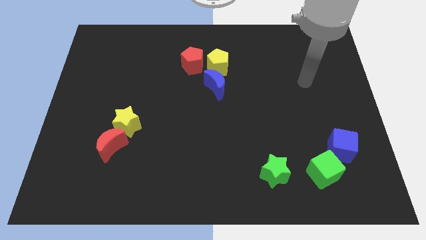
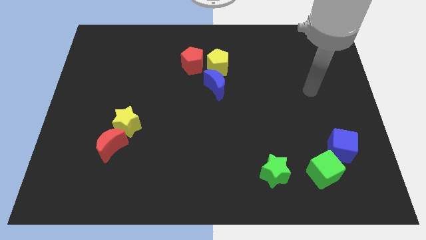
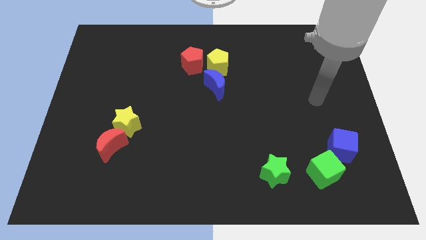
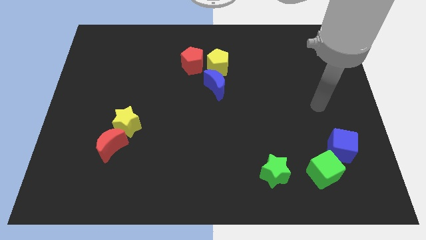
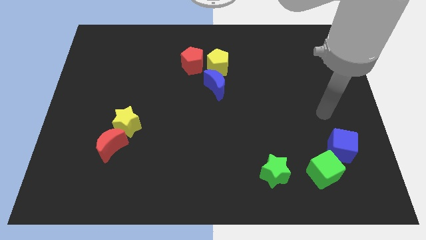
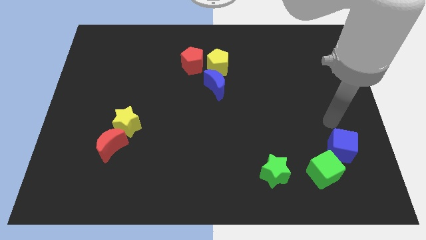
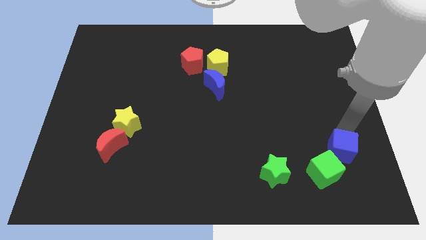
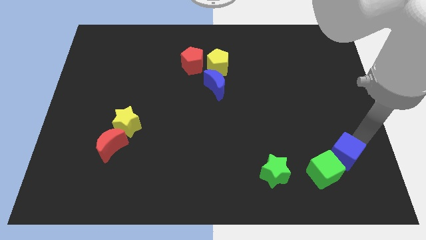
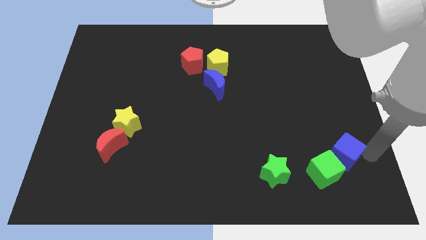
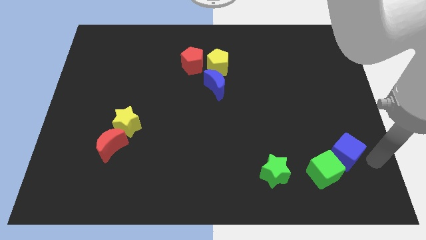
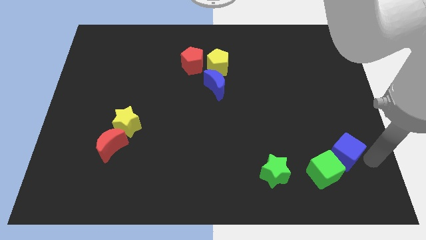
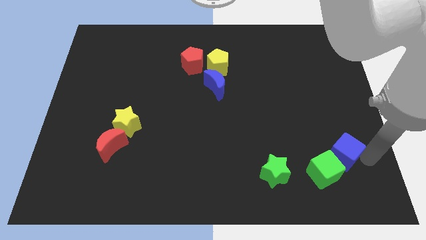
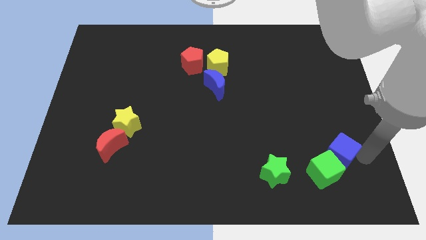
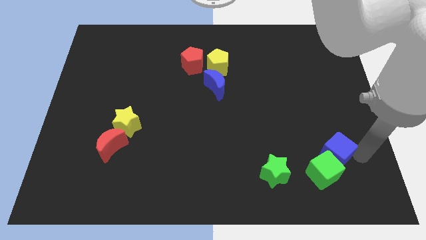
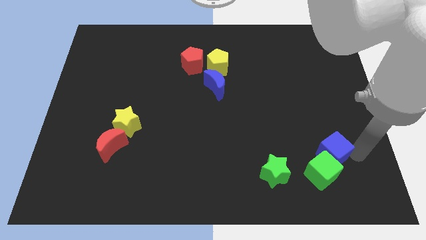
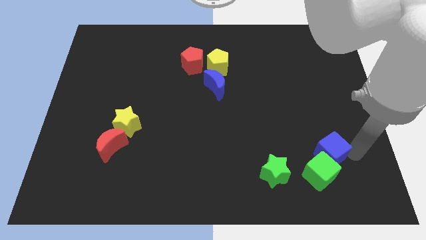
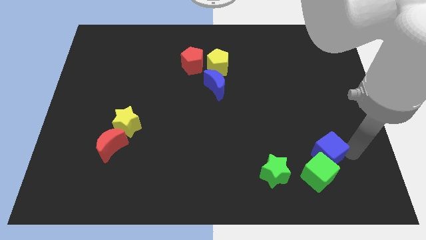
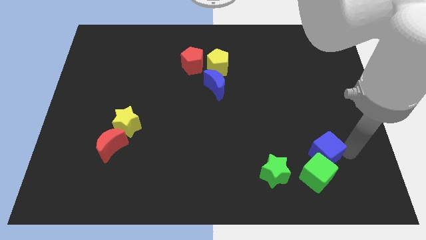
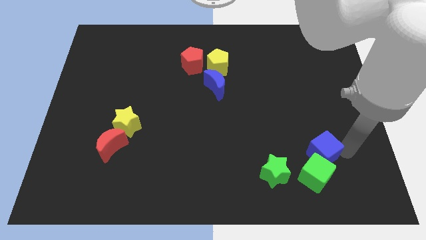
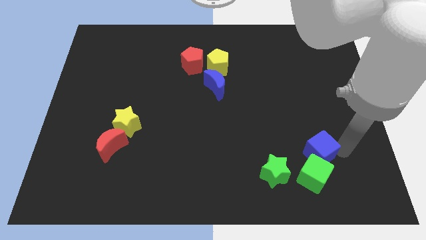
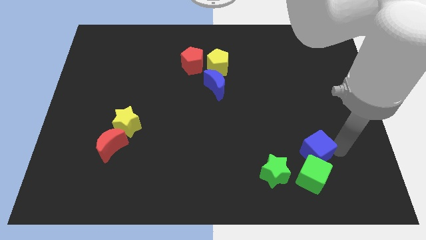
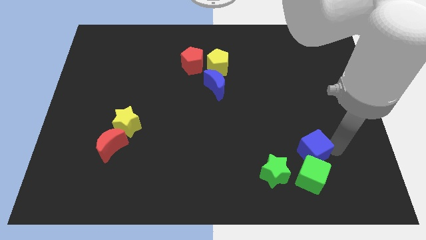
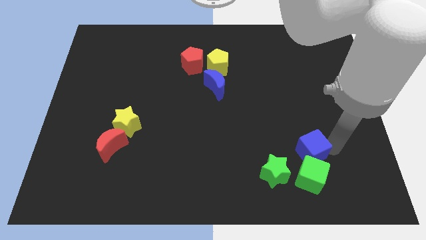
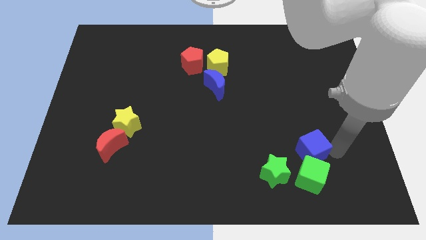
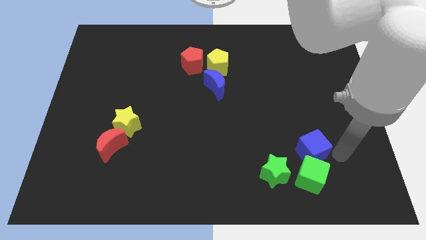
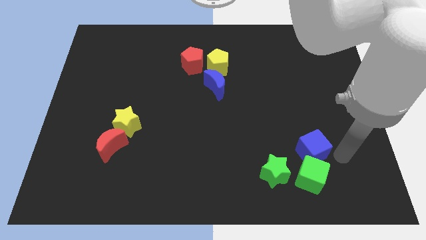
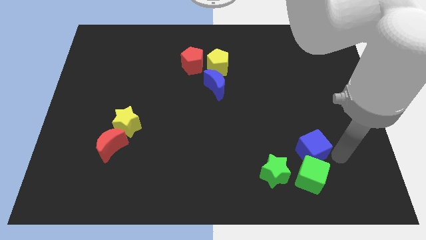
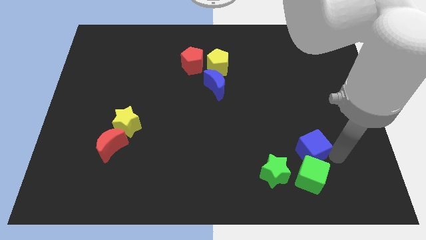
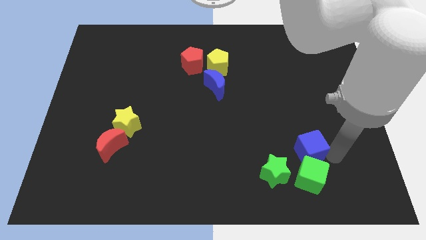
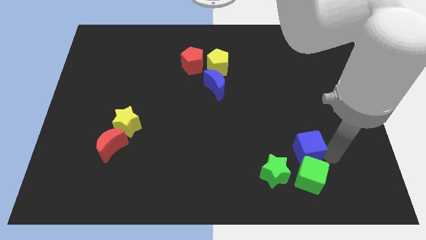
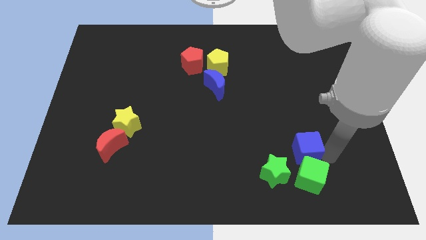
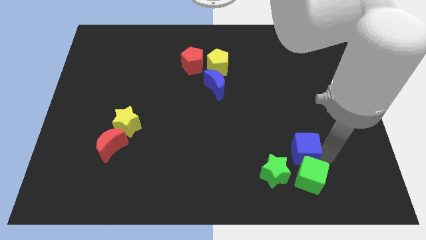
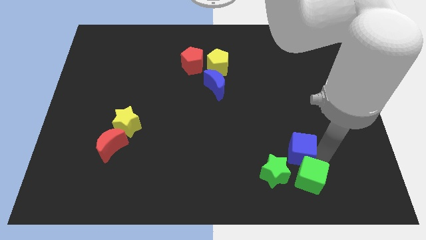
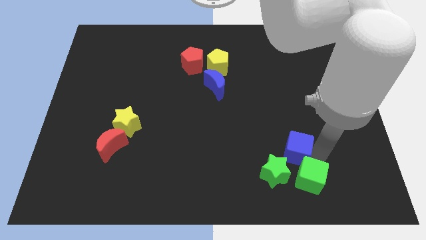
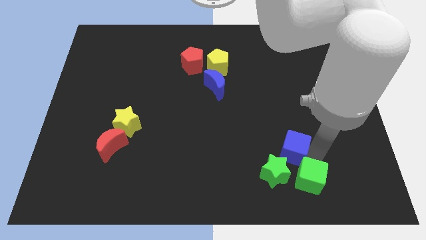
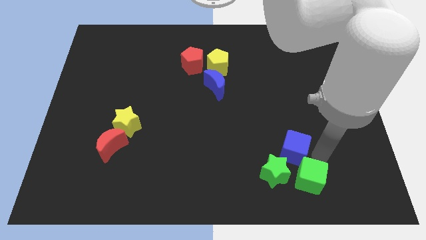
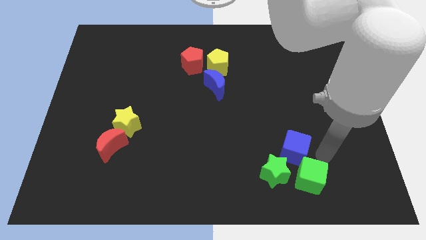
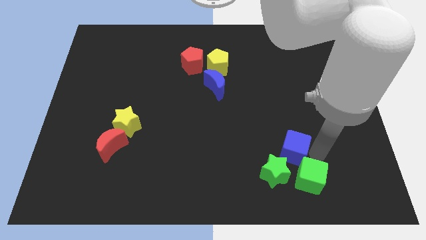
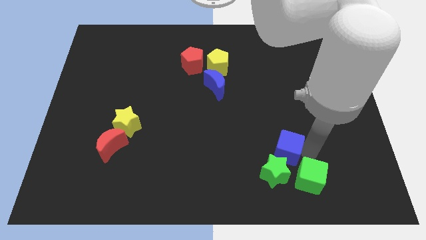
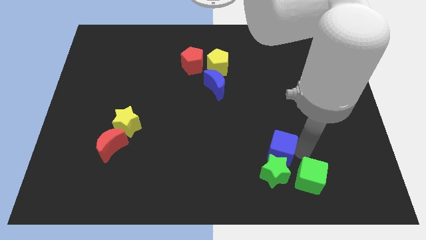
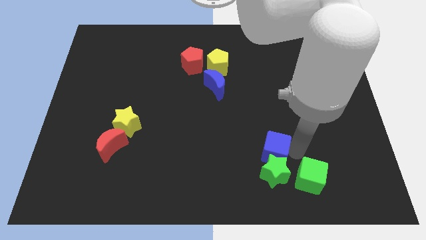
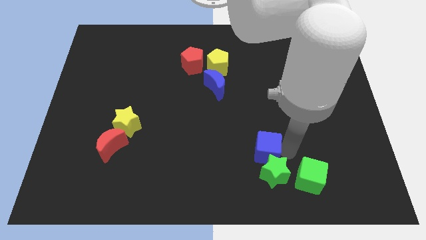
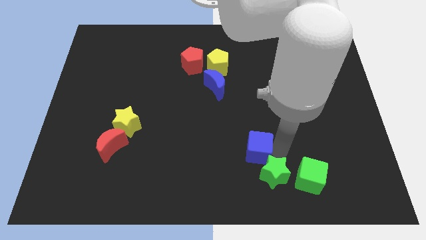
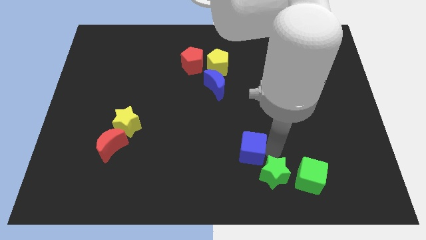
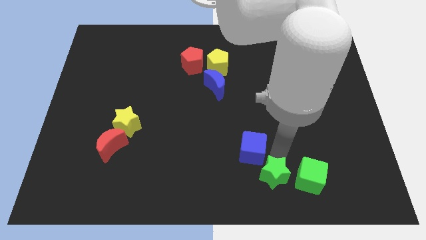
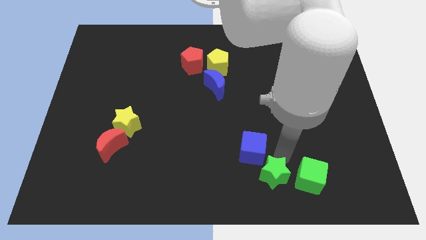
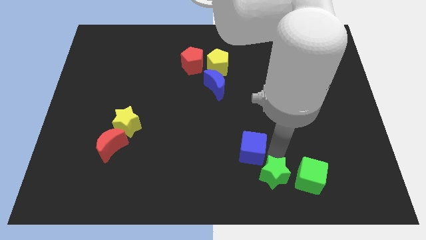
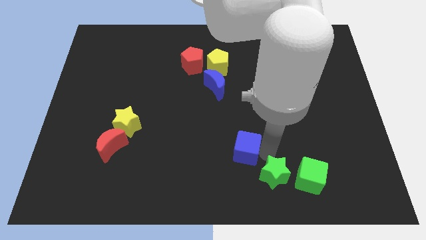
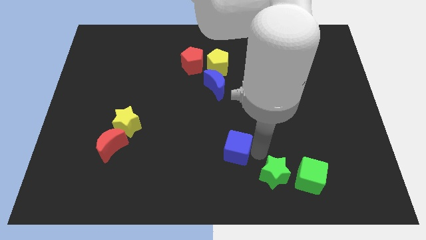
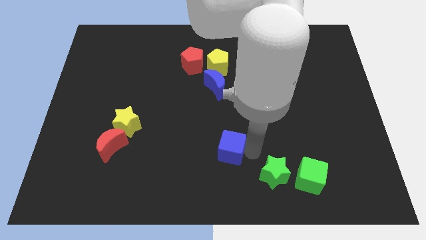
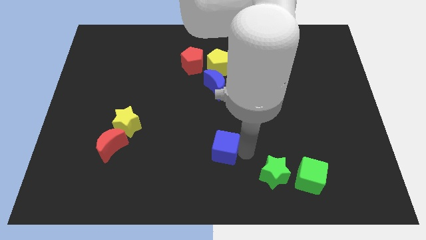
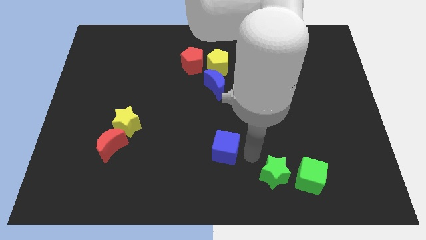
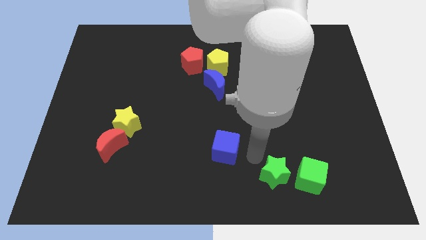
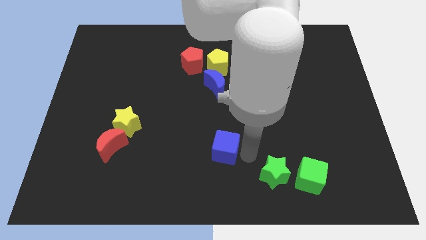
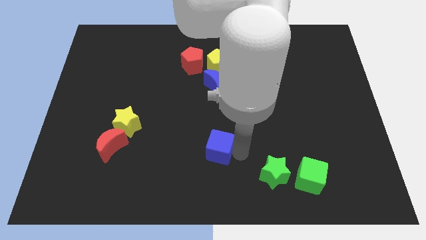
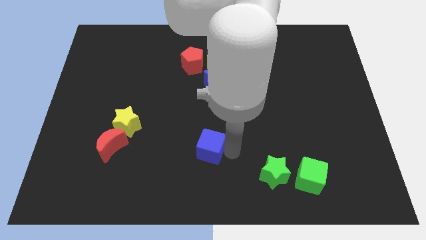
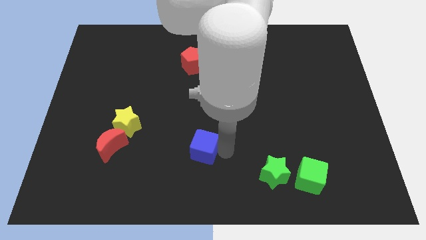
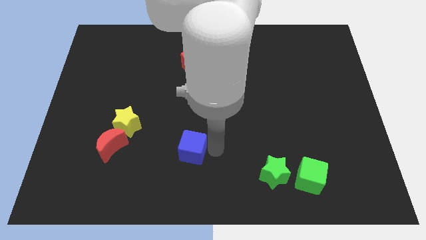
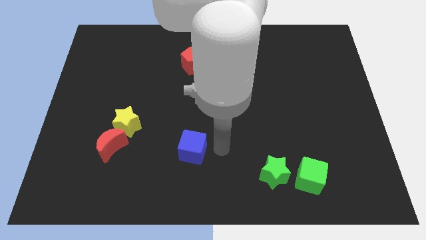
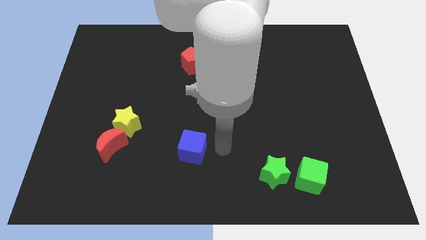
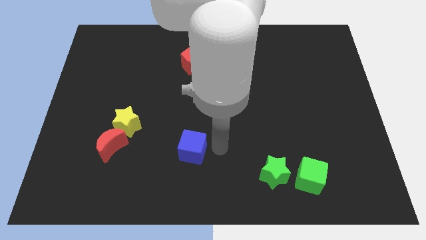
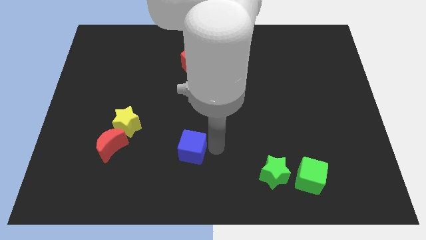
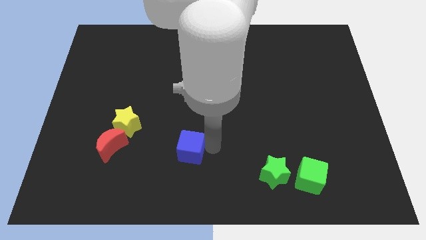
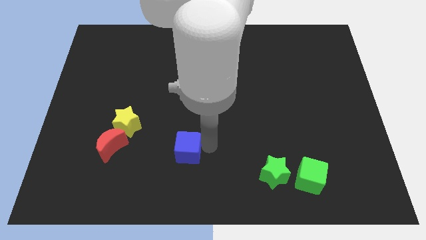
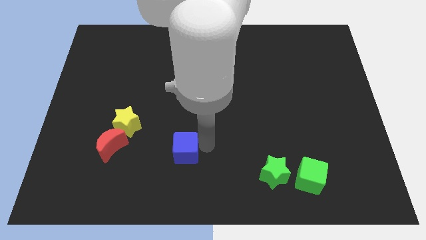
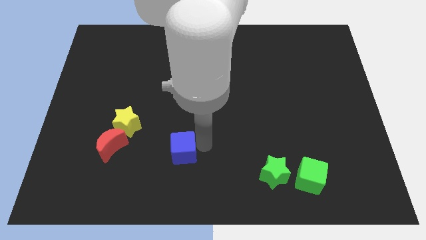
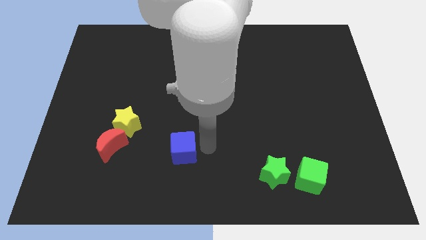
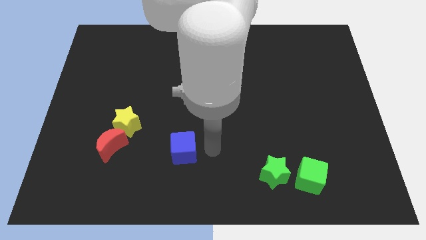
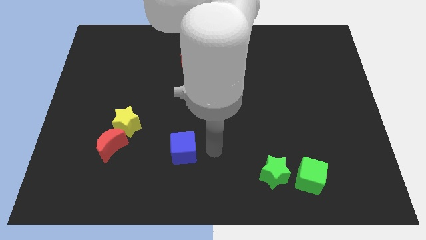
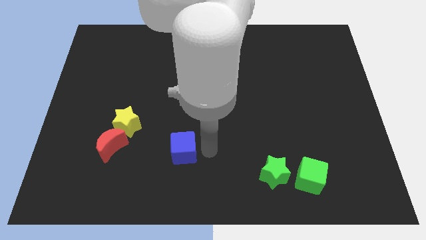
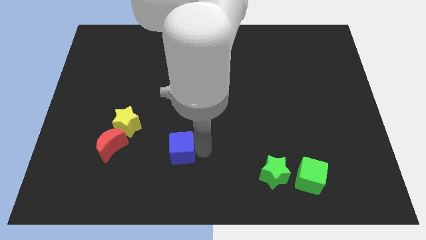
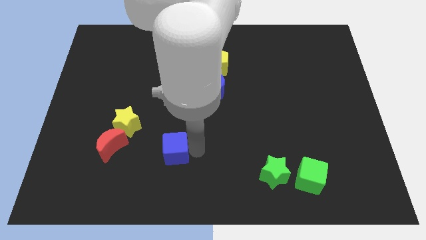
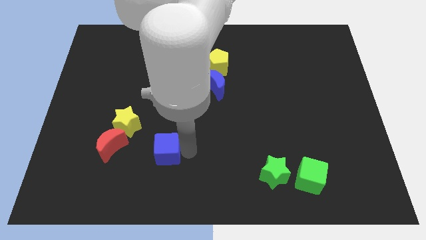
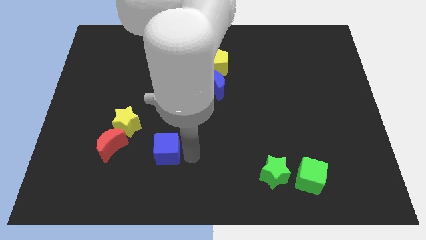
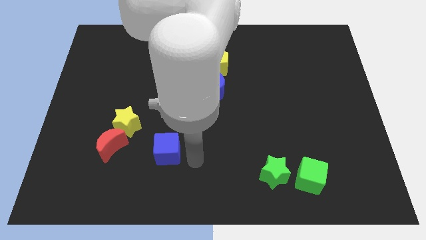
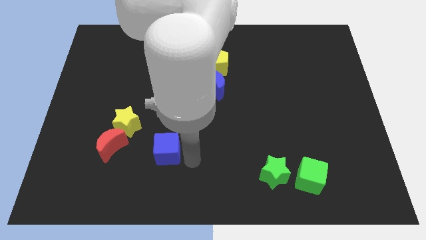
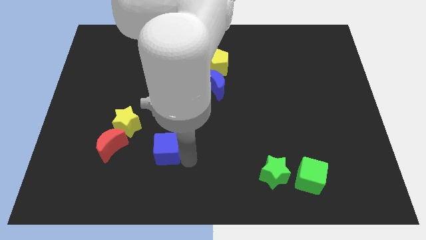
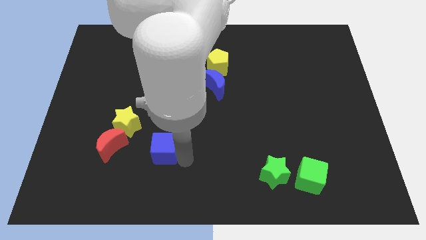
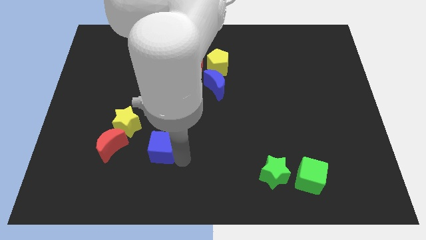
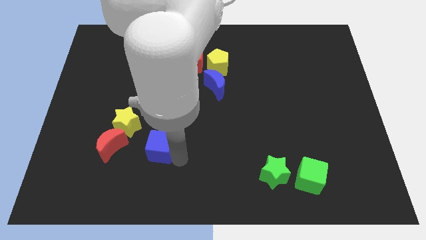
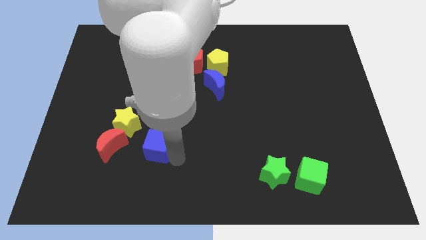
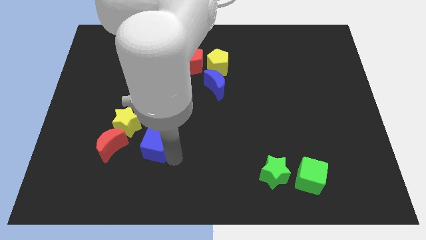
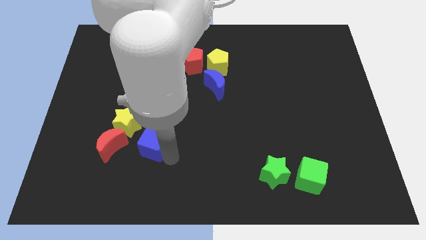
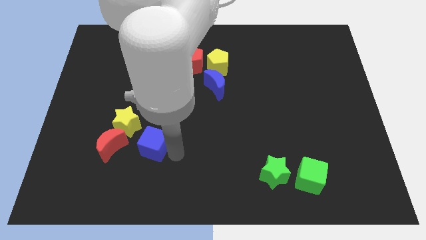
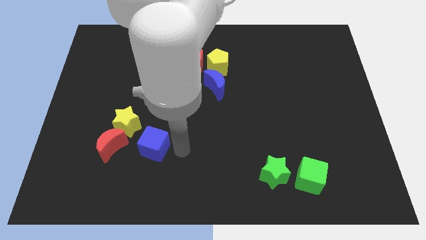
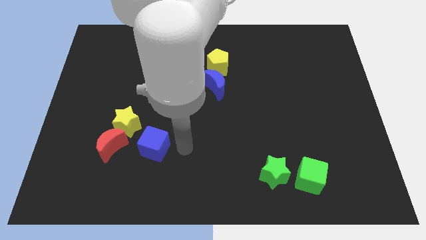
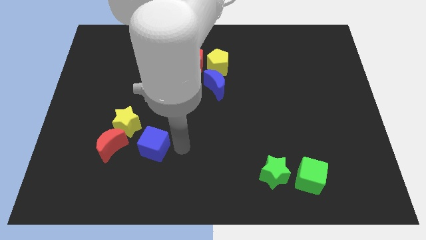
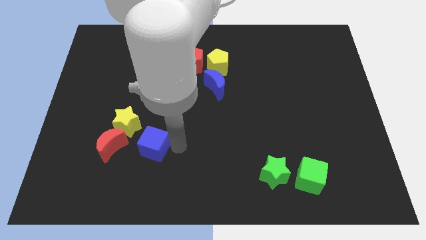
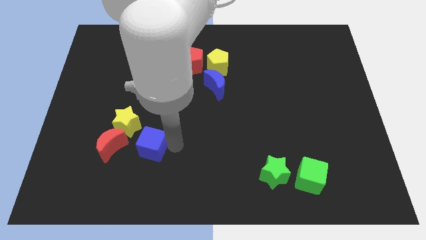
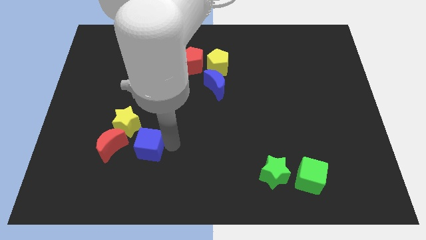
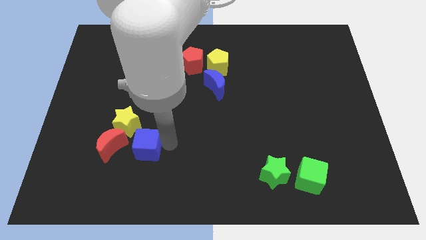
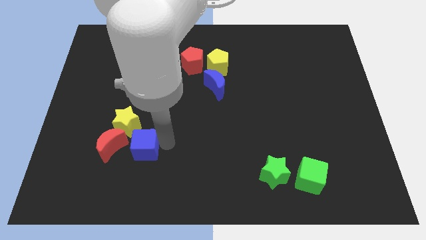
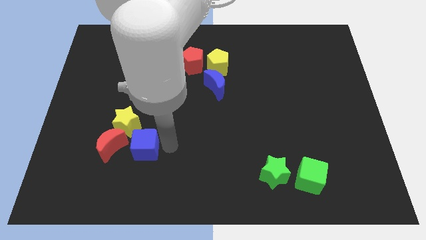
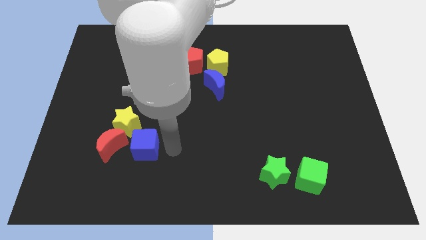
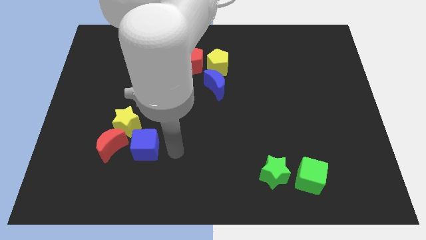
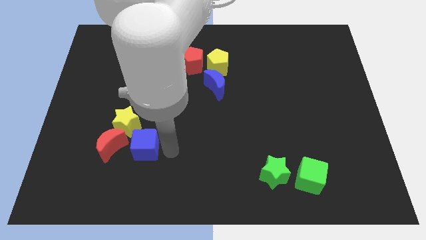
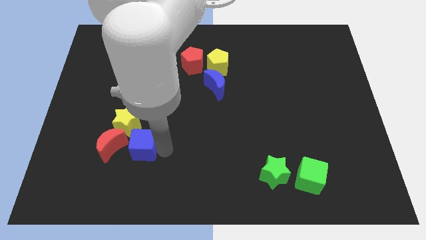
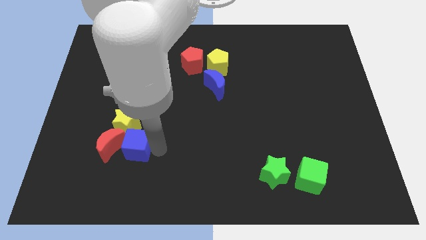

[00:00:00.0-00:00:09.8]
slide the blue cube close to the red moon
